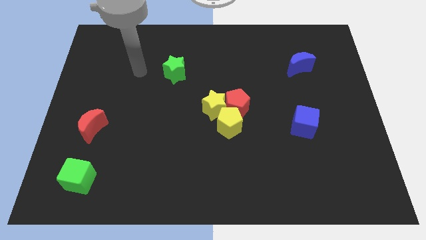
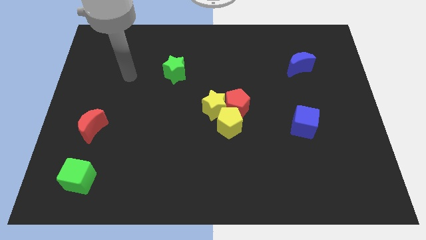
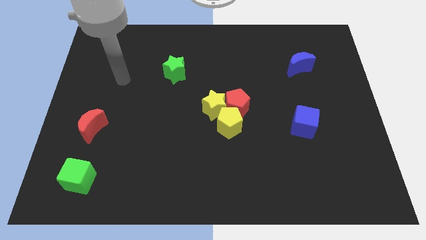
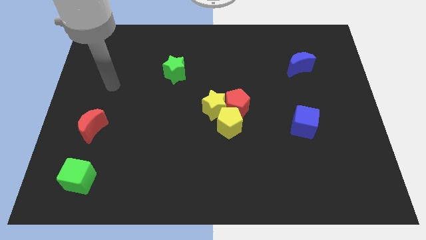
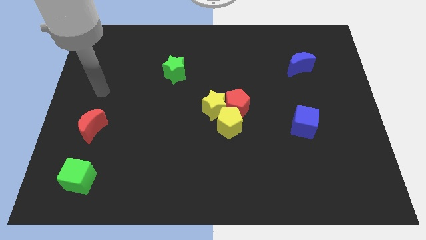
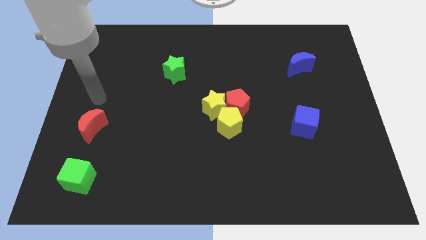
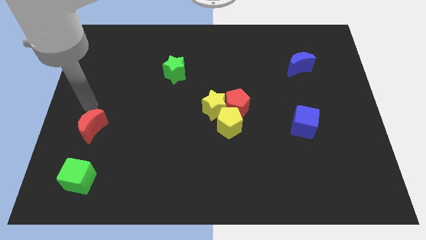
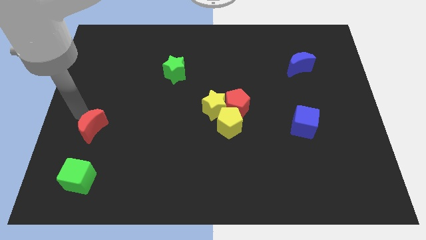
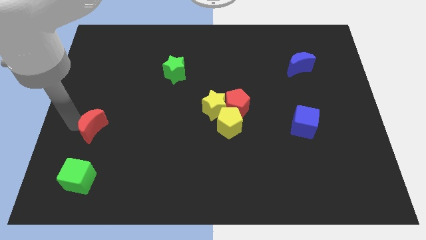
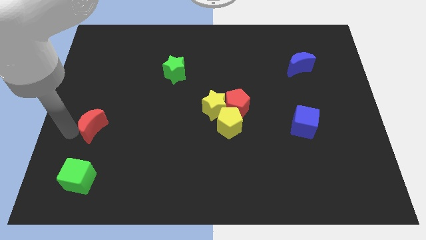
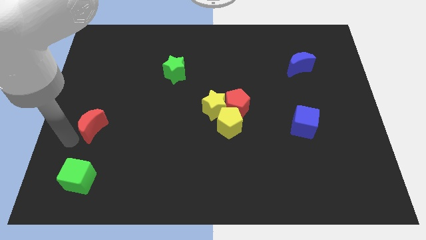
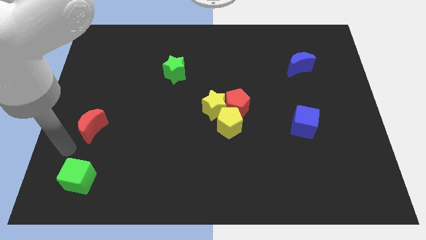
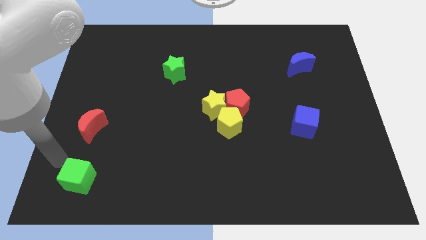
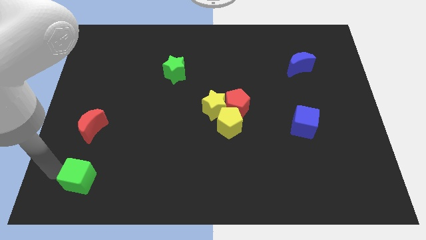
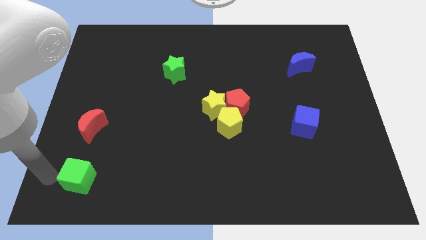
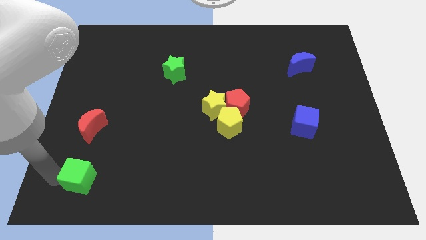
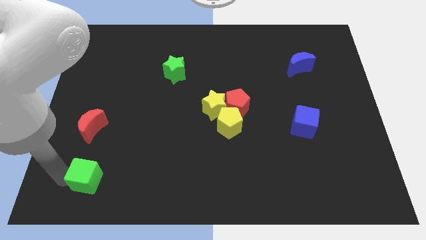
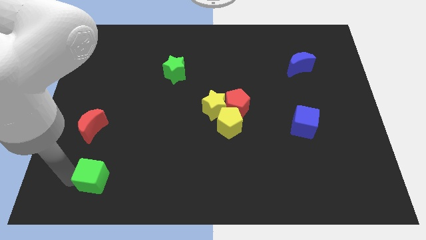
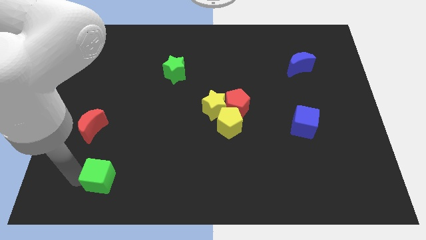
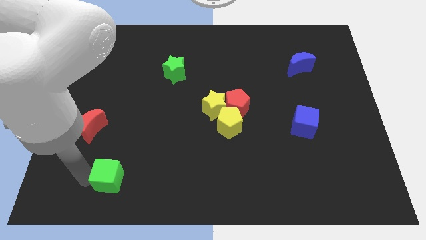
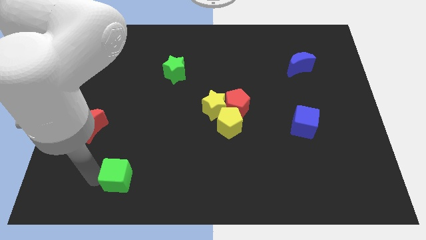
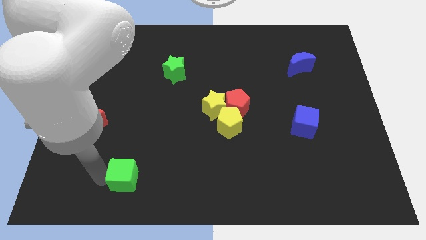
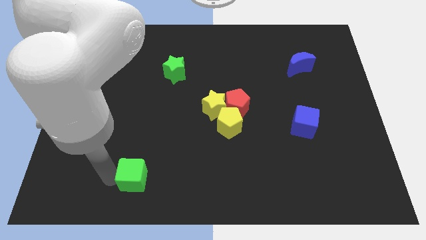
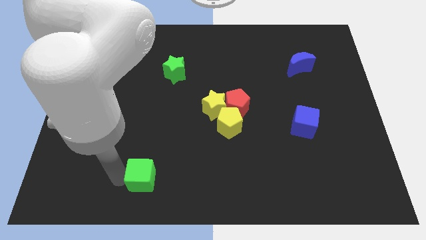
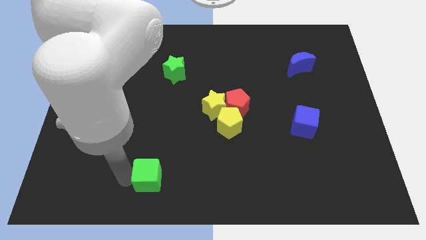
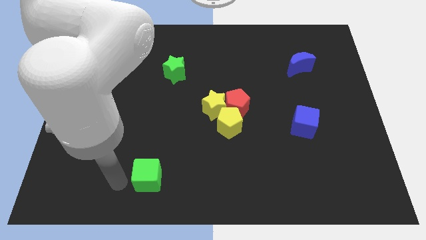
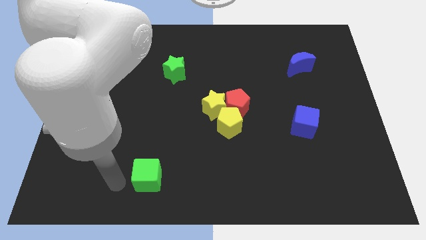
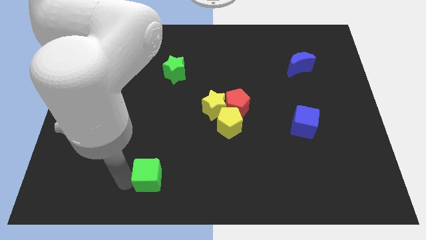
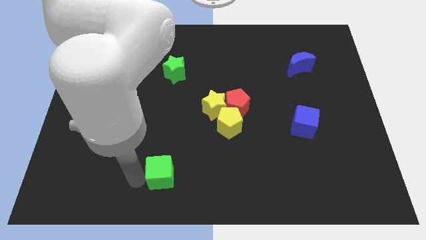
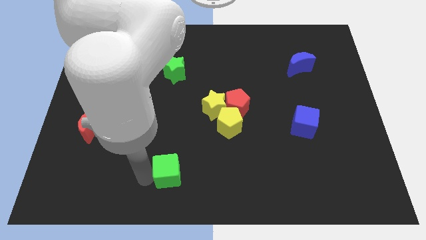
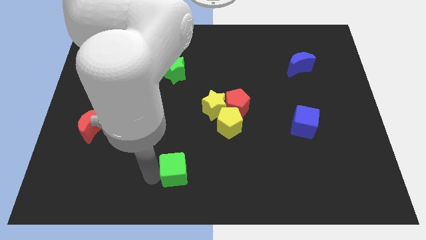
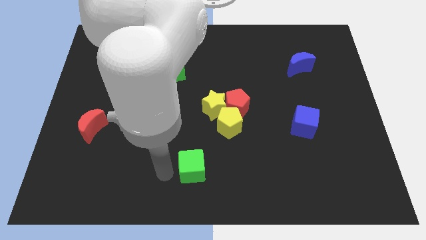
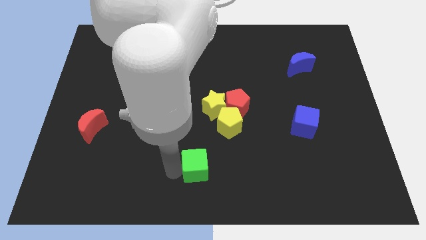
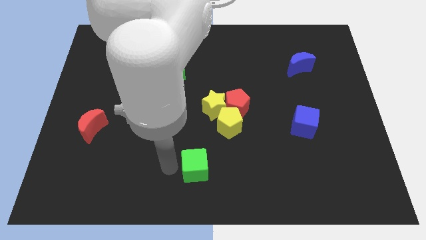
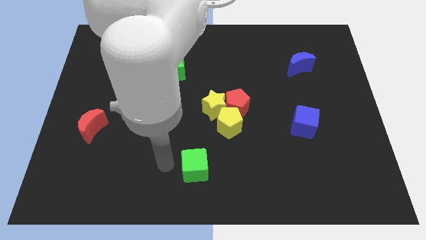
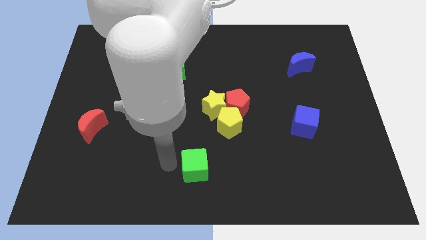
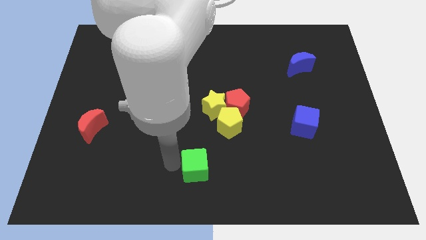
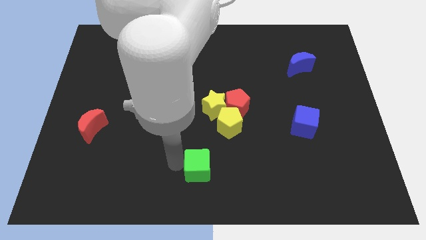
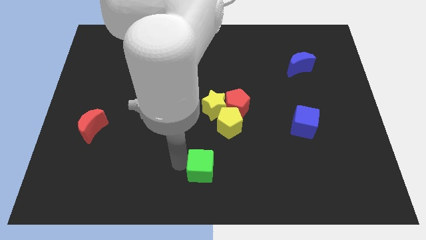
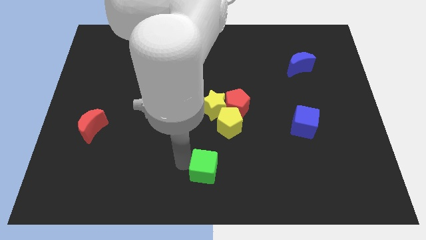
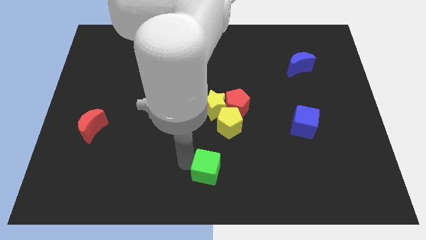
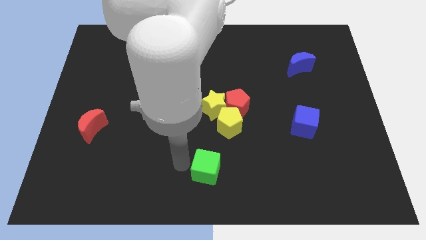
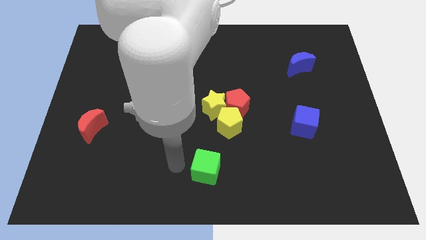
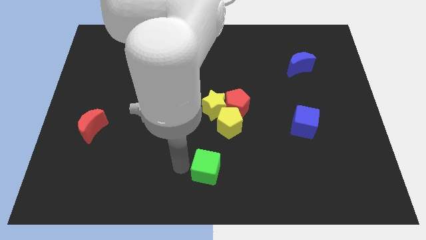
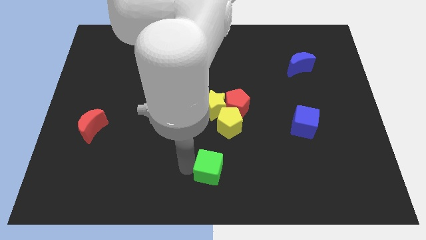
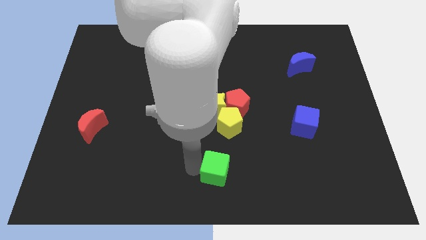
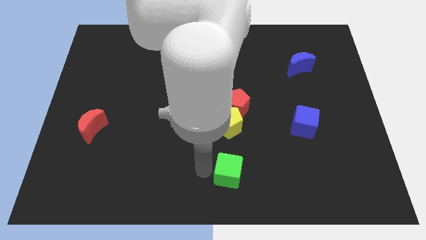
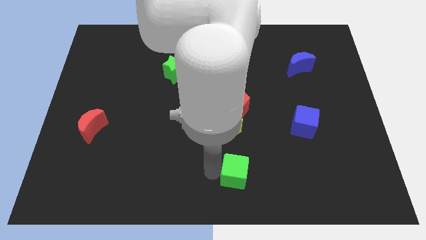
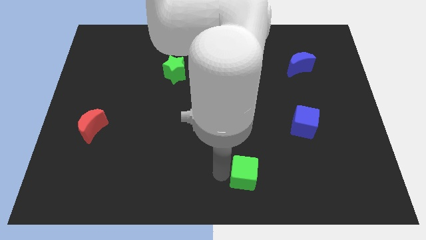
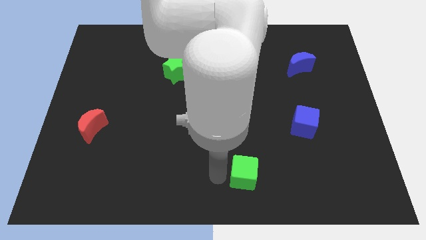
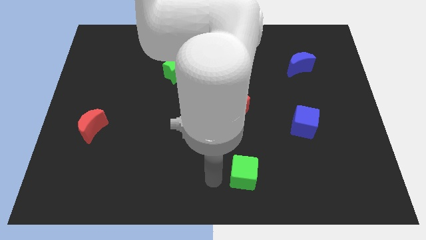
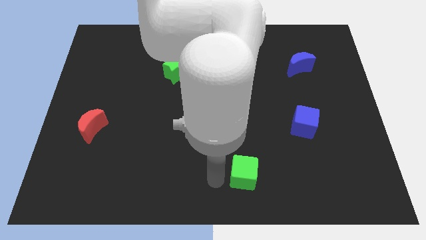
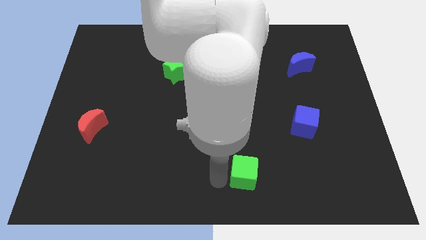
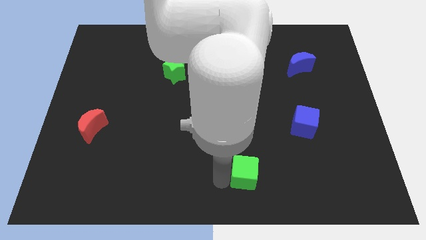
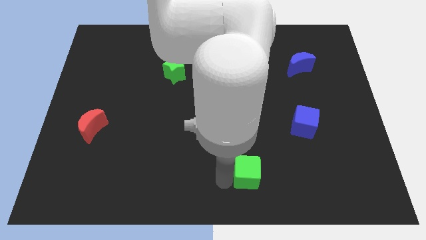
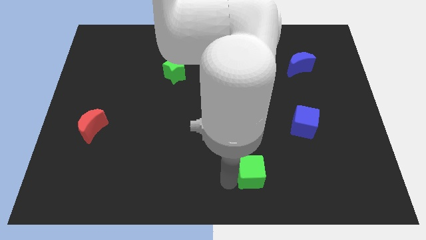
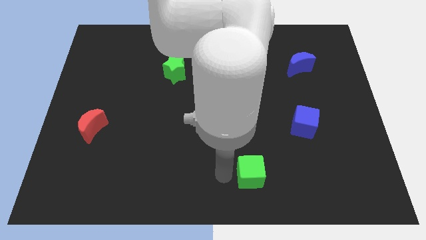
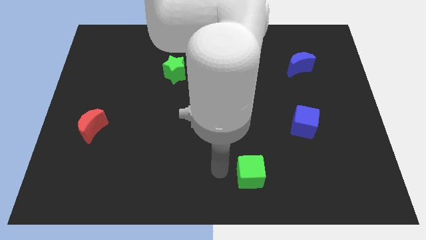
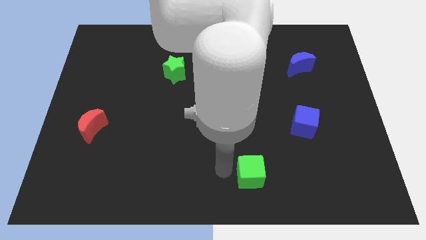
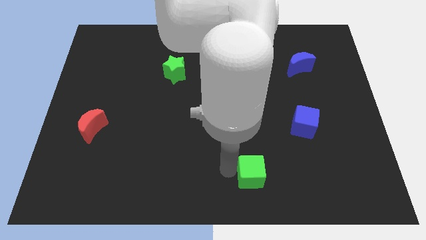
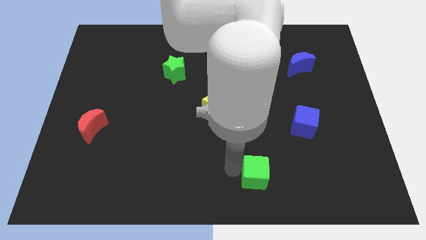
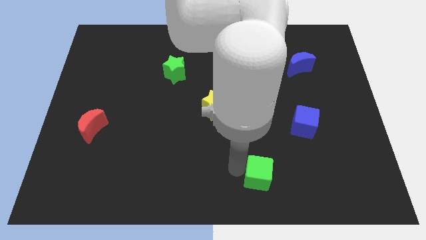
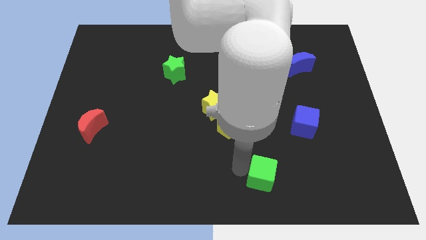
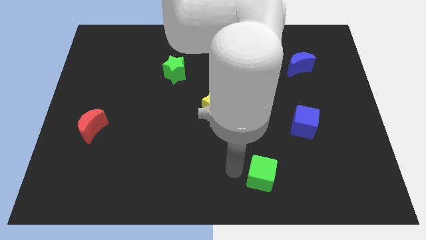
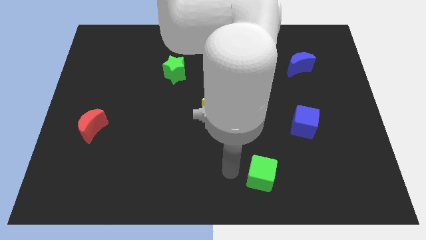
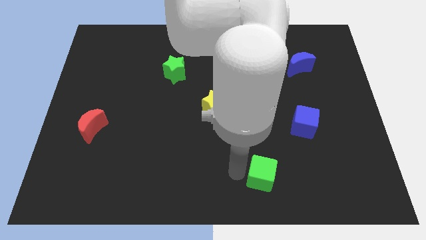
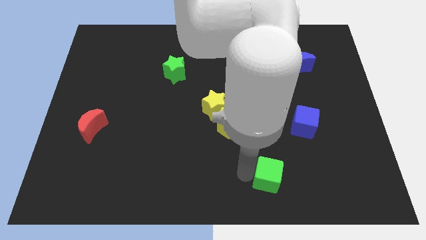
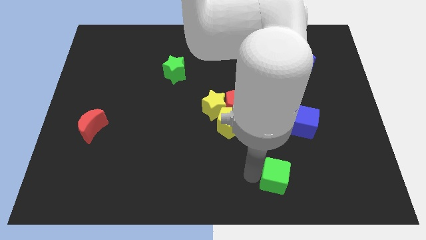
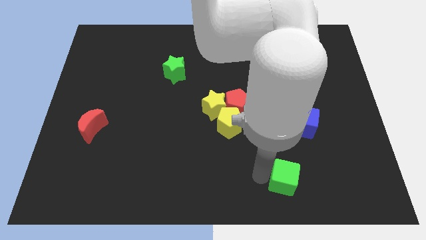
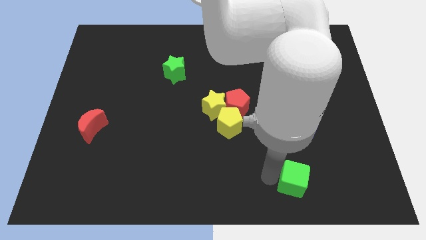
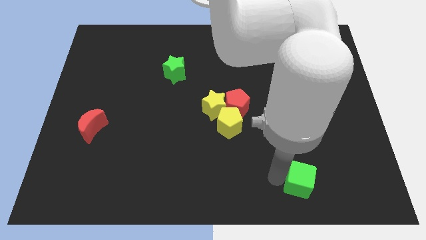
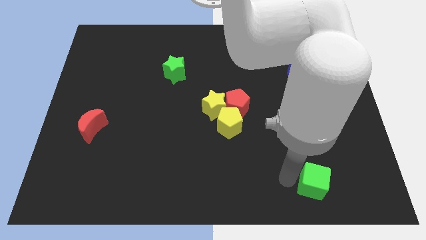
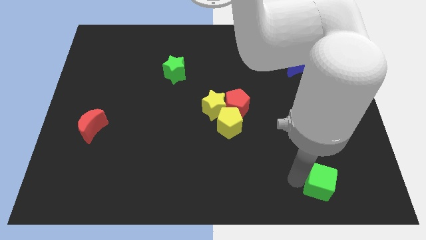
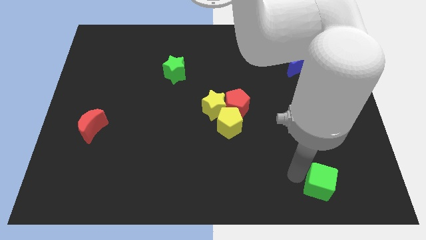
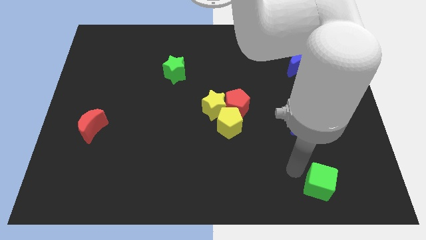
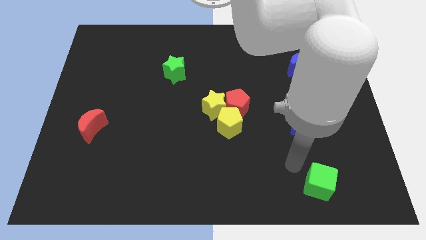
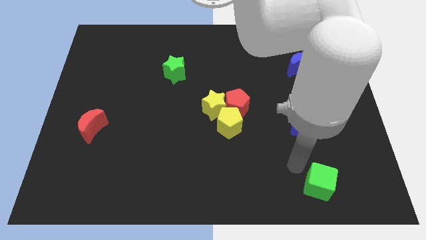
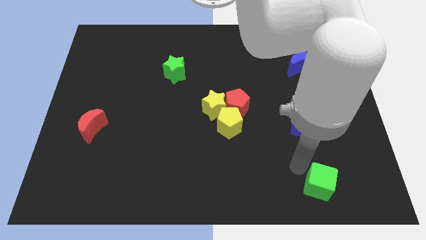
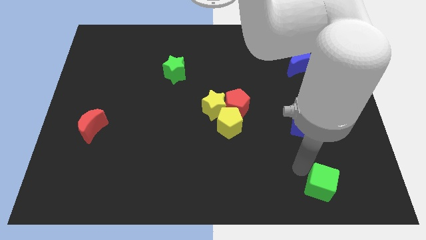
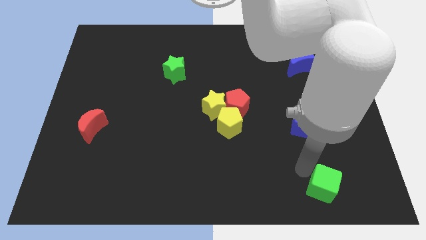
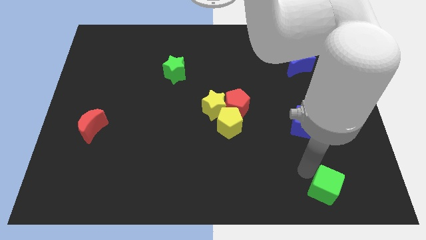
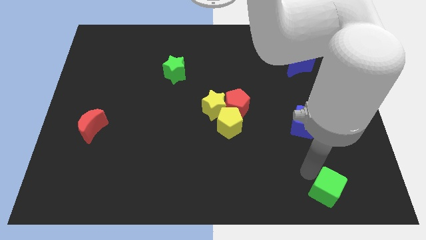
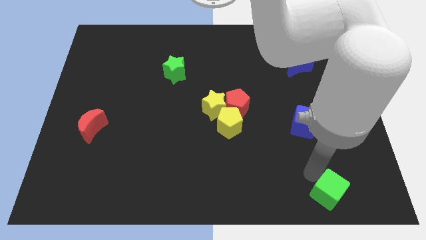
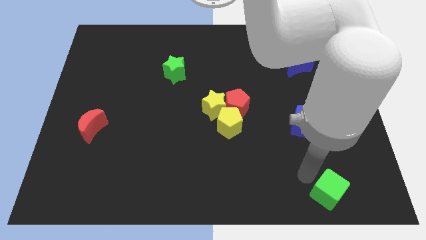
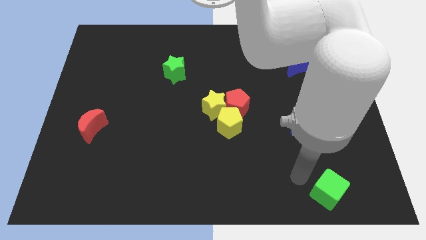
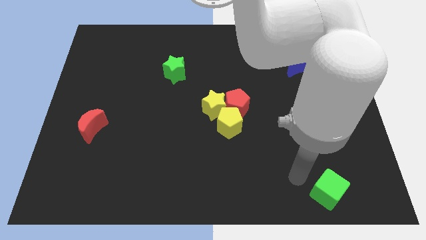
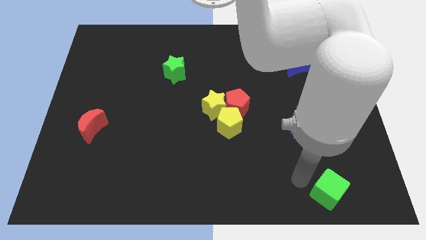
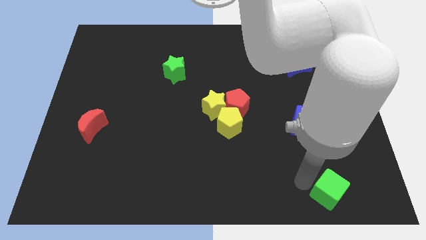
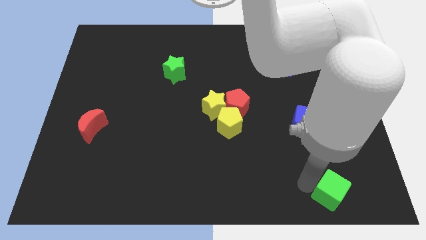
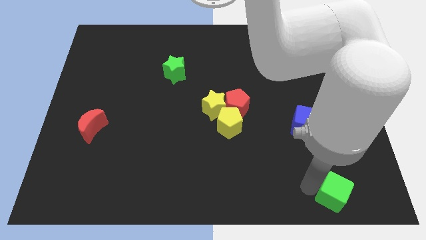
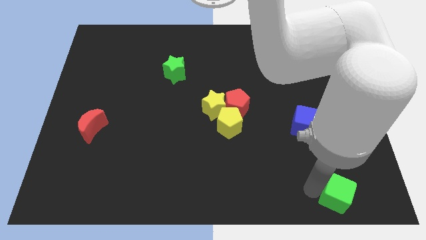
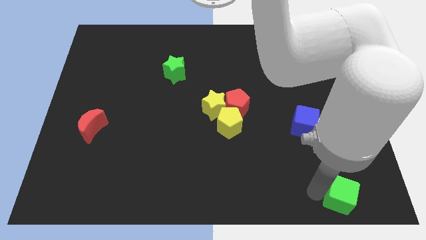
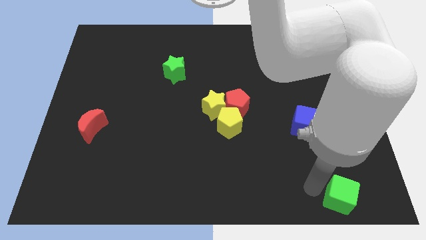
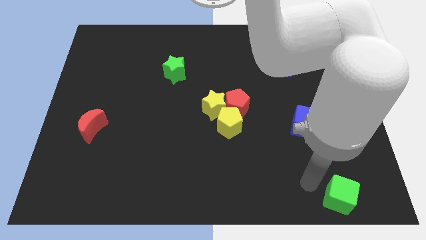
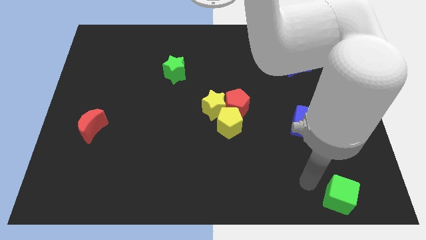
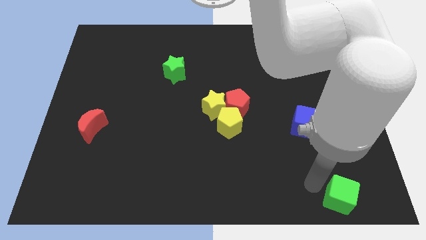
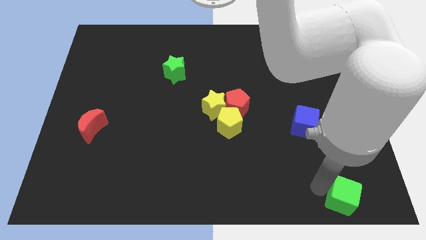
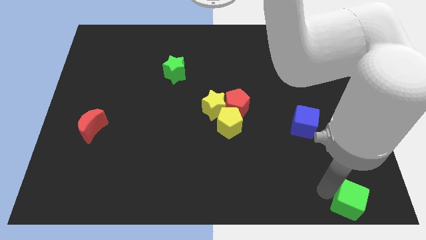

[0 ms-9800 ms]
slide the green cube to the lower right corner
